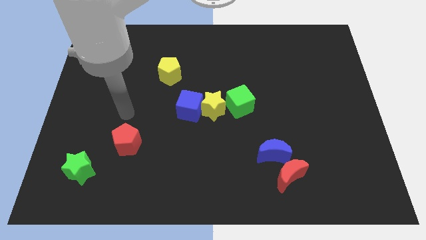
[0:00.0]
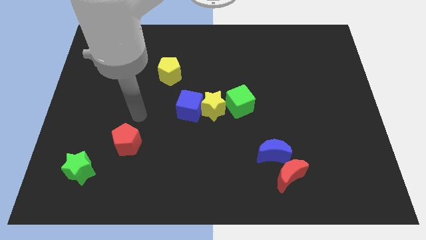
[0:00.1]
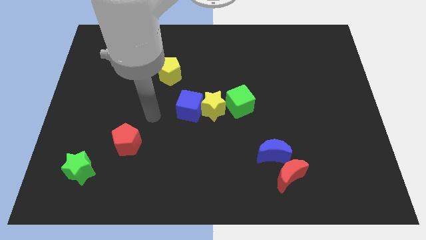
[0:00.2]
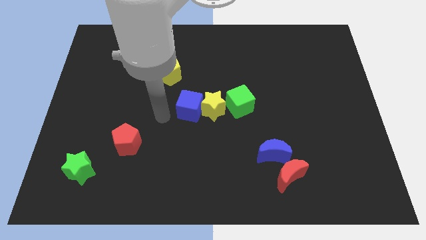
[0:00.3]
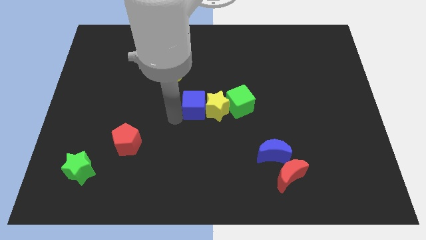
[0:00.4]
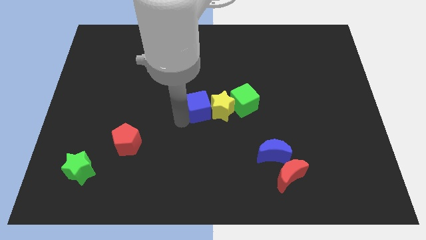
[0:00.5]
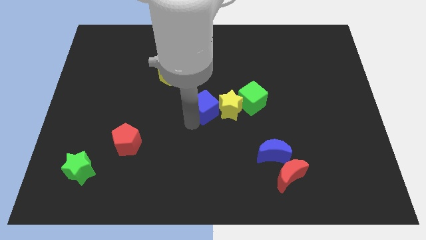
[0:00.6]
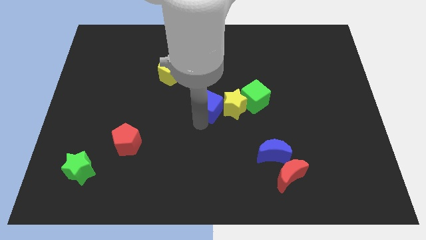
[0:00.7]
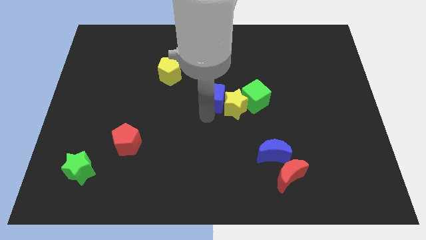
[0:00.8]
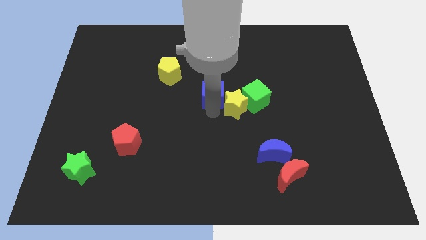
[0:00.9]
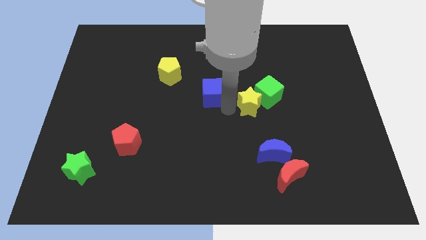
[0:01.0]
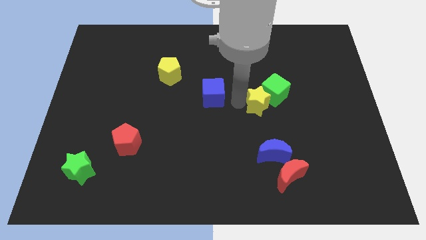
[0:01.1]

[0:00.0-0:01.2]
move the blue cube away from the yellow star

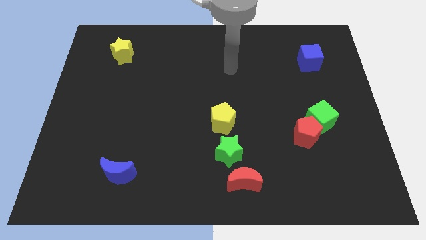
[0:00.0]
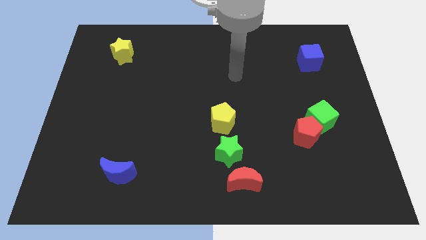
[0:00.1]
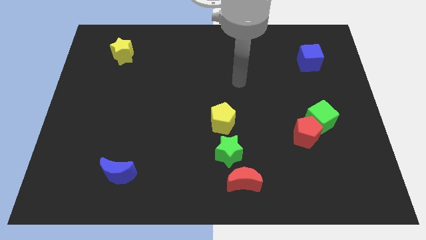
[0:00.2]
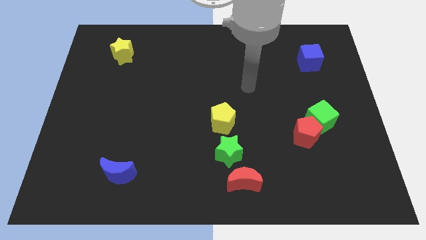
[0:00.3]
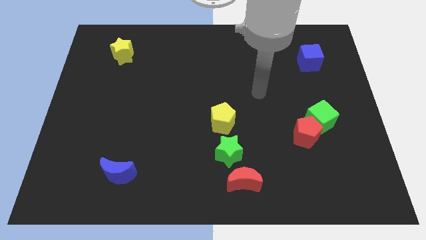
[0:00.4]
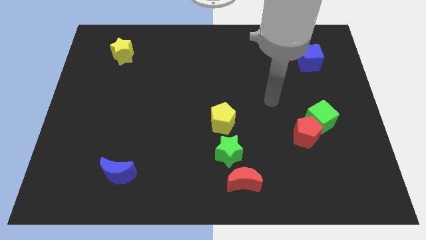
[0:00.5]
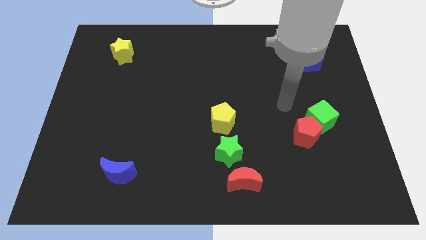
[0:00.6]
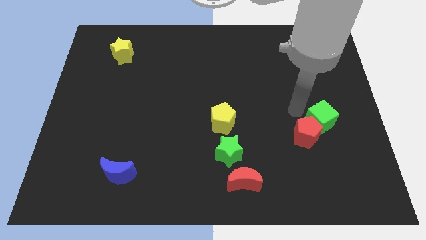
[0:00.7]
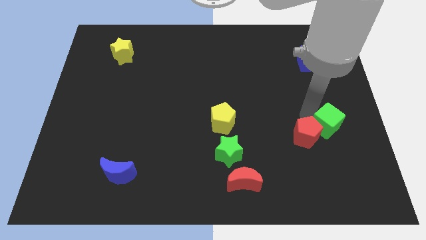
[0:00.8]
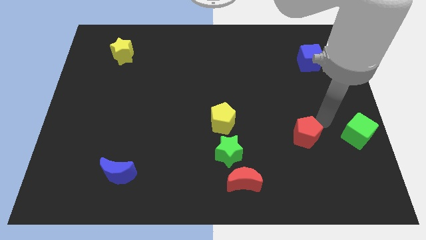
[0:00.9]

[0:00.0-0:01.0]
pull the red pentagon apart from the green cube

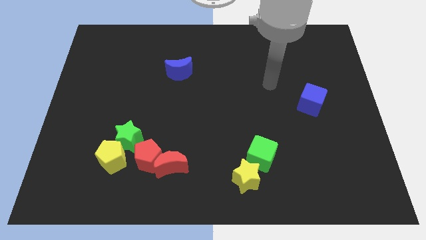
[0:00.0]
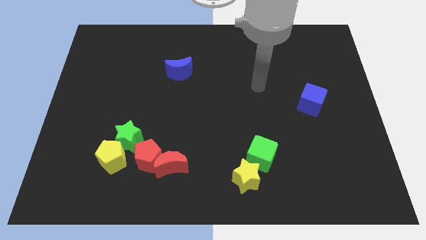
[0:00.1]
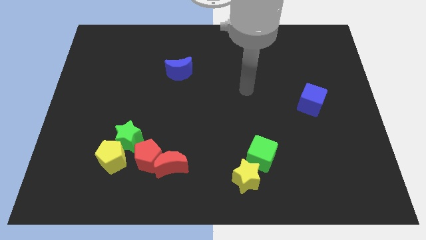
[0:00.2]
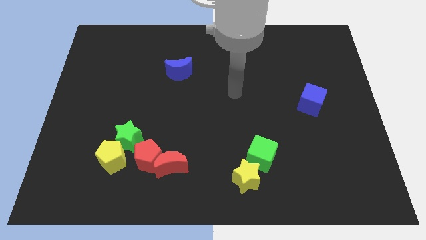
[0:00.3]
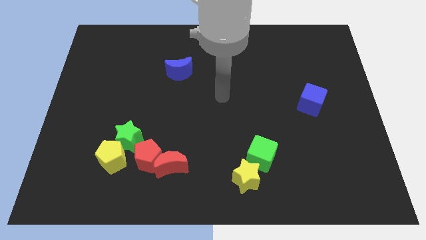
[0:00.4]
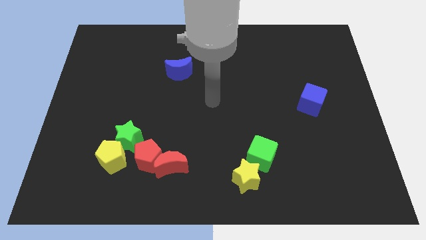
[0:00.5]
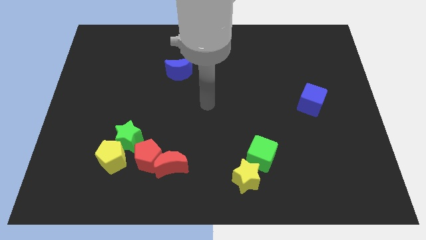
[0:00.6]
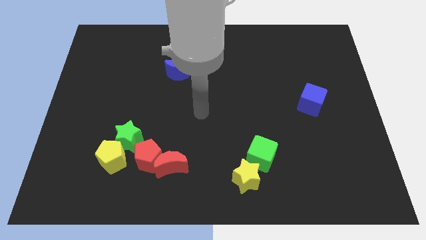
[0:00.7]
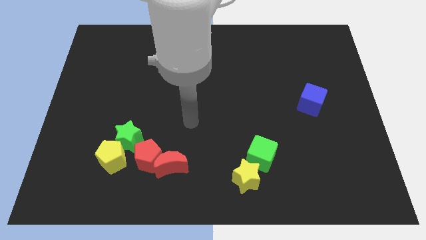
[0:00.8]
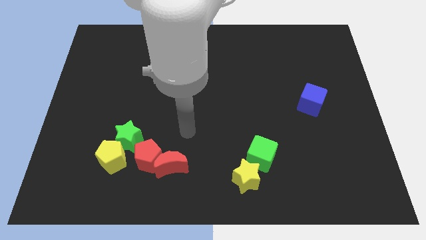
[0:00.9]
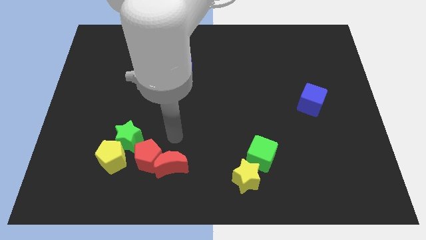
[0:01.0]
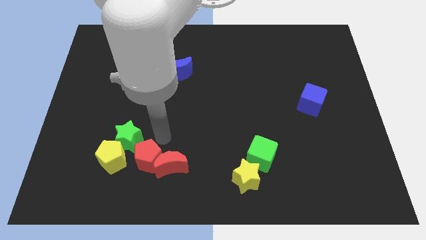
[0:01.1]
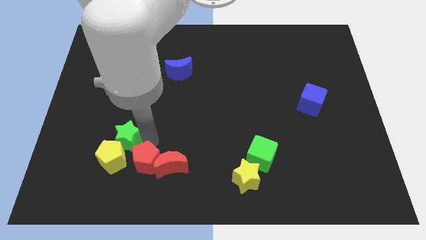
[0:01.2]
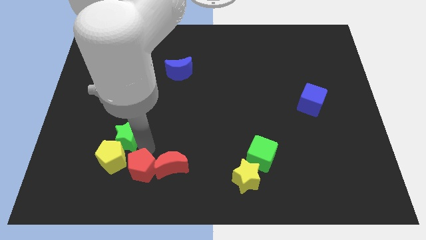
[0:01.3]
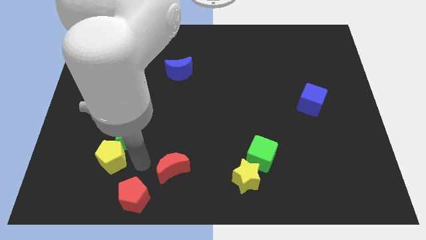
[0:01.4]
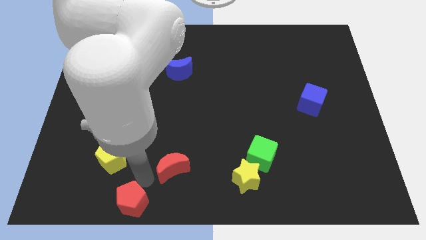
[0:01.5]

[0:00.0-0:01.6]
pull the red moon apart from the red pentagon

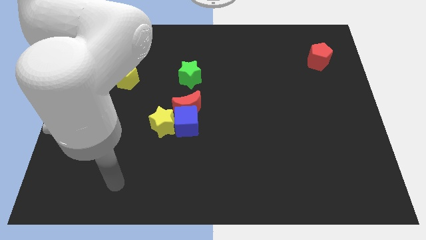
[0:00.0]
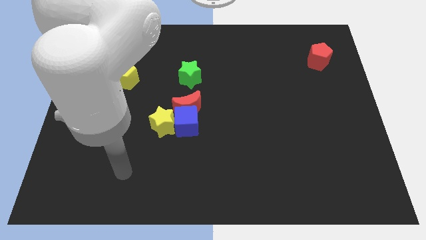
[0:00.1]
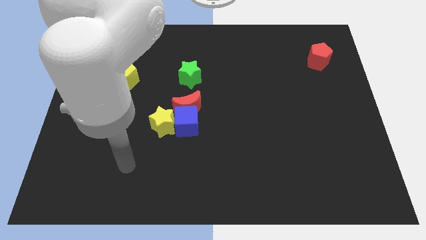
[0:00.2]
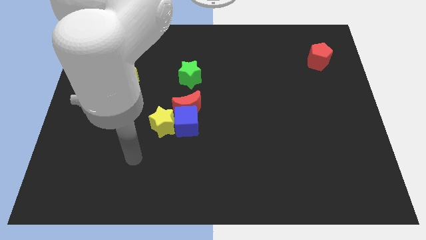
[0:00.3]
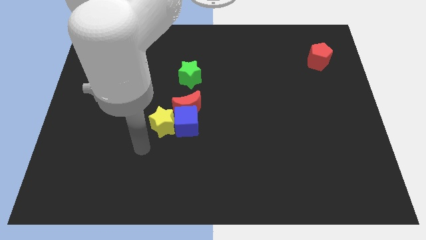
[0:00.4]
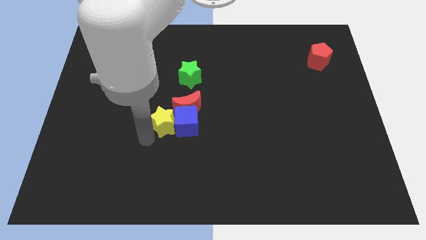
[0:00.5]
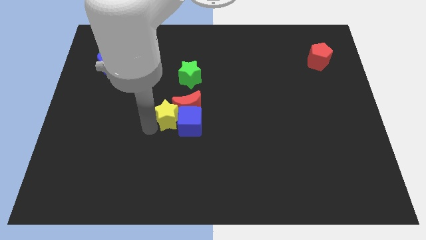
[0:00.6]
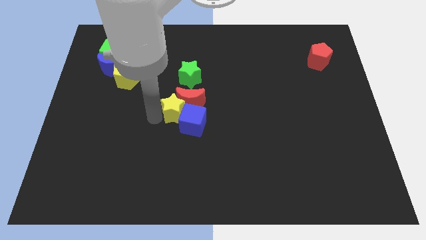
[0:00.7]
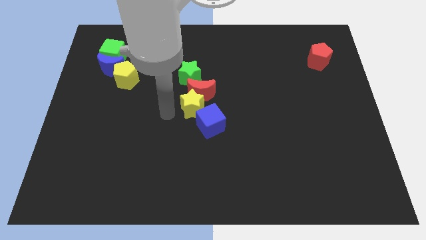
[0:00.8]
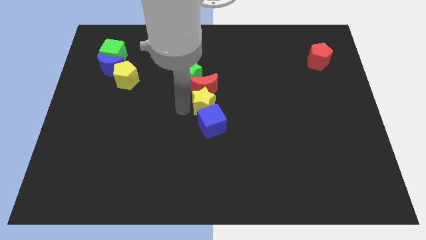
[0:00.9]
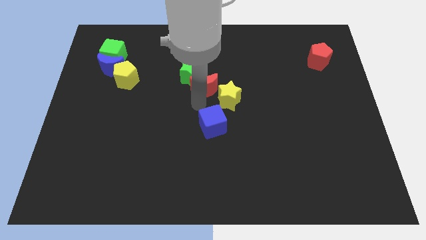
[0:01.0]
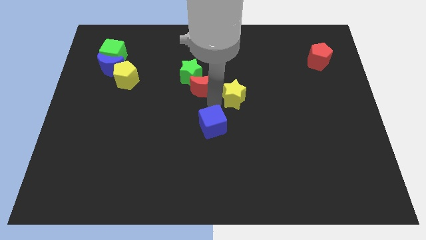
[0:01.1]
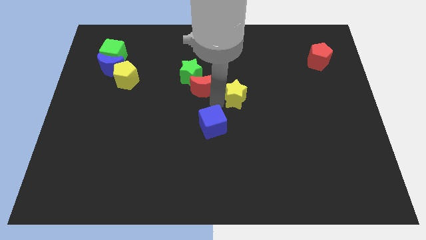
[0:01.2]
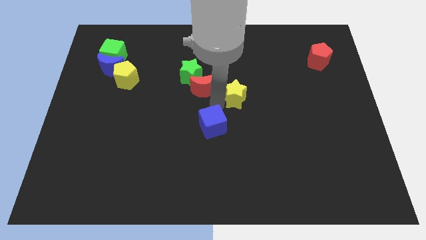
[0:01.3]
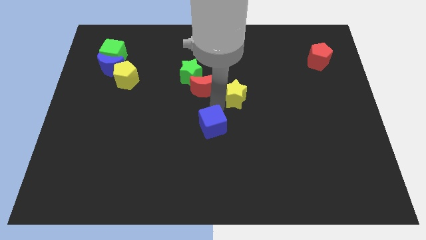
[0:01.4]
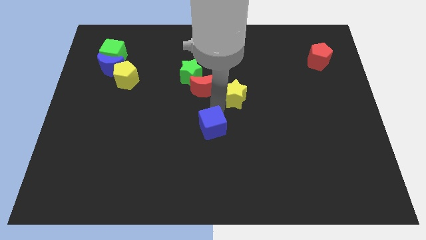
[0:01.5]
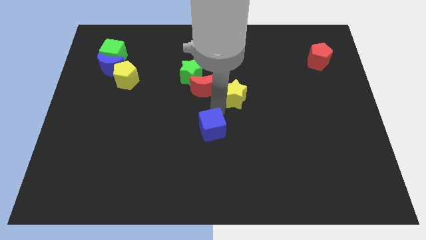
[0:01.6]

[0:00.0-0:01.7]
separate the blue cube from the red moon and yellow star

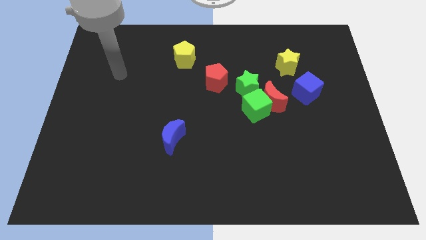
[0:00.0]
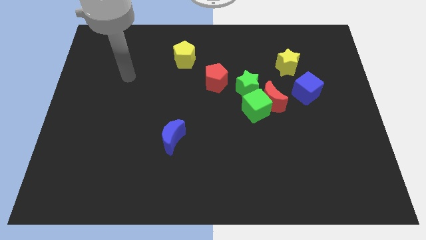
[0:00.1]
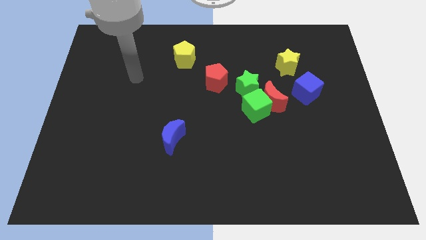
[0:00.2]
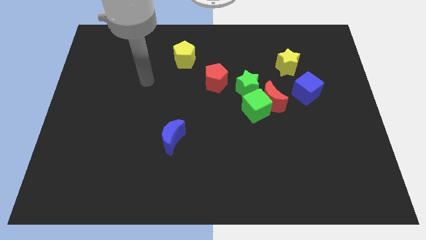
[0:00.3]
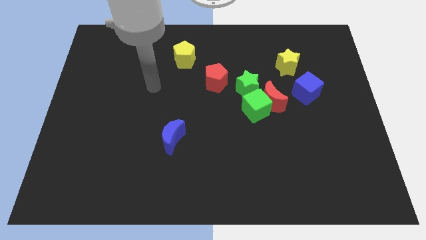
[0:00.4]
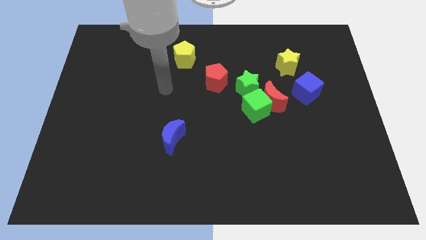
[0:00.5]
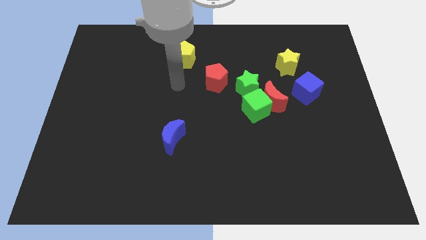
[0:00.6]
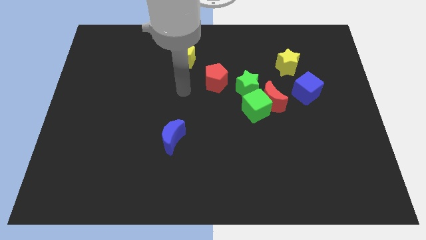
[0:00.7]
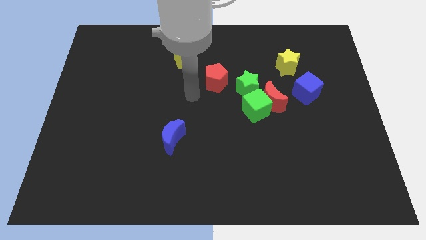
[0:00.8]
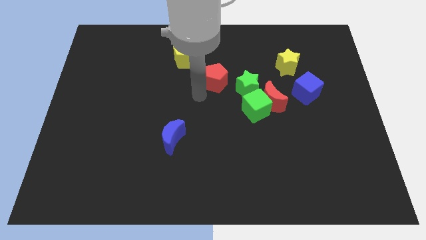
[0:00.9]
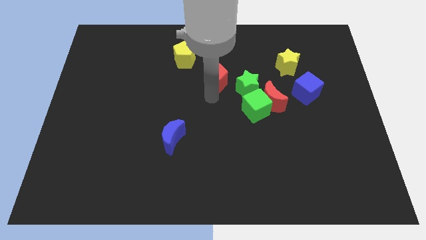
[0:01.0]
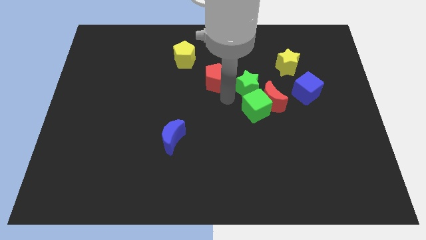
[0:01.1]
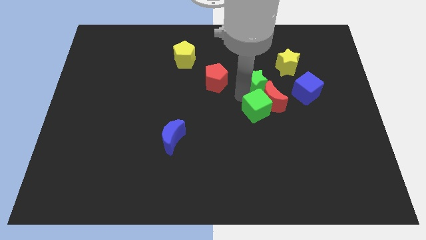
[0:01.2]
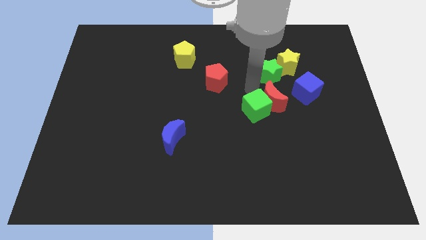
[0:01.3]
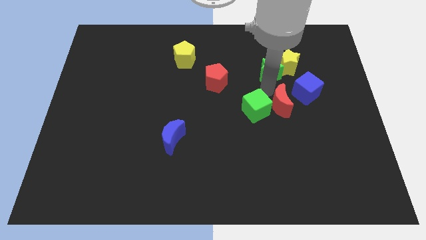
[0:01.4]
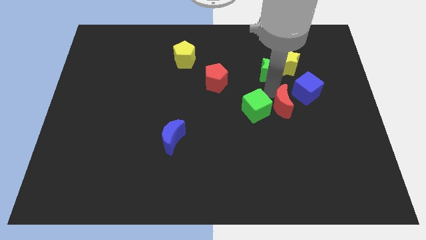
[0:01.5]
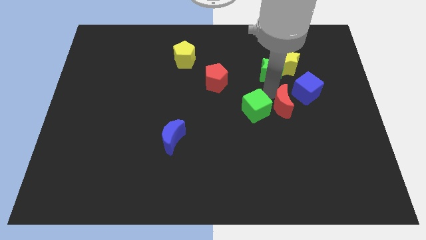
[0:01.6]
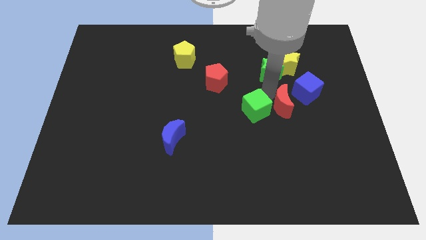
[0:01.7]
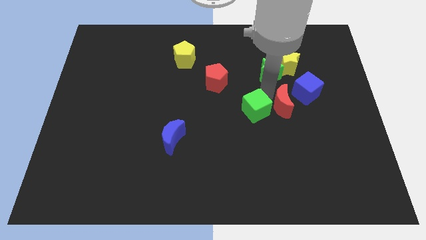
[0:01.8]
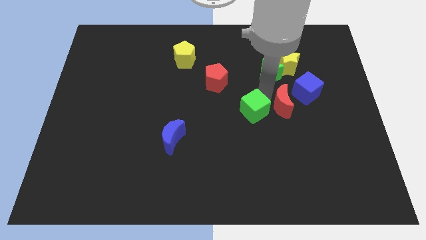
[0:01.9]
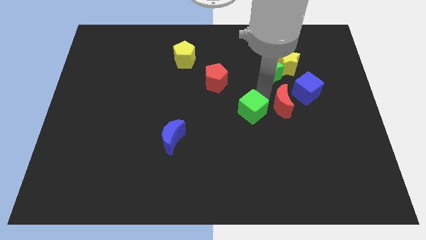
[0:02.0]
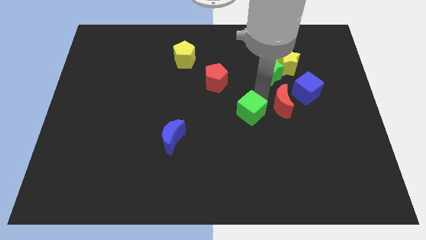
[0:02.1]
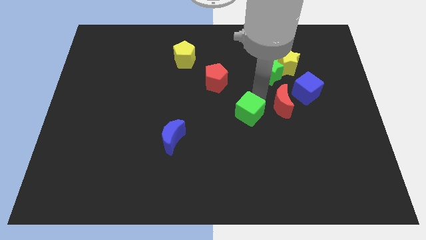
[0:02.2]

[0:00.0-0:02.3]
separate the green cube from the red moon and green star

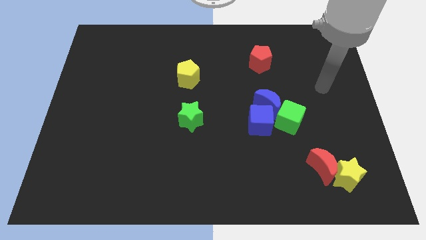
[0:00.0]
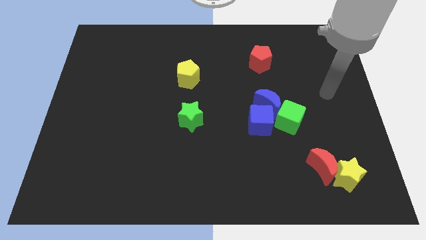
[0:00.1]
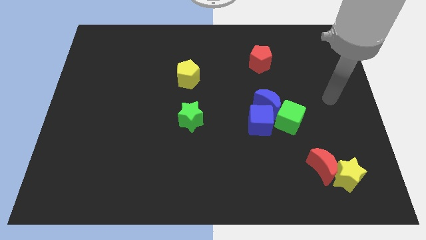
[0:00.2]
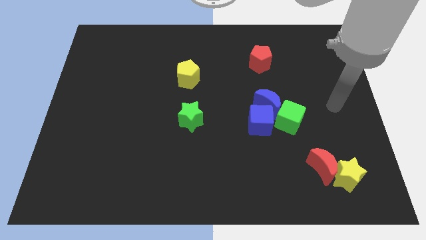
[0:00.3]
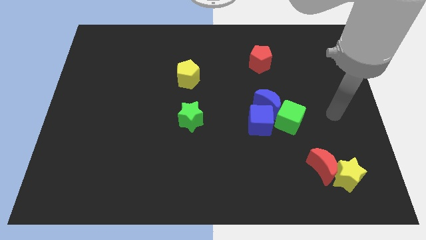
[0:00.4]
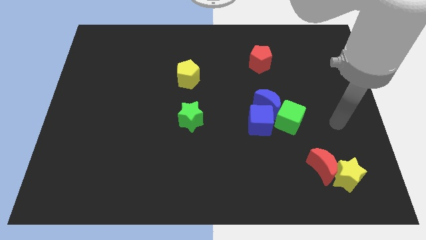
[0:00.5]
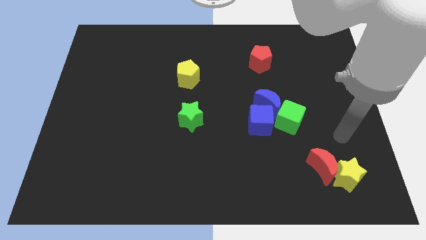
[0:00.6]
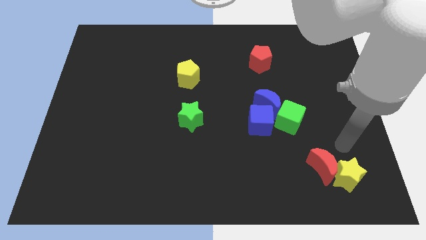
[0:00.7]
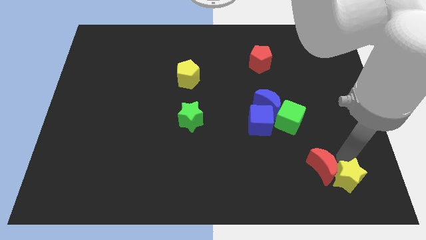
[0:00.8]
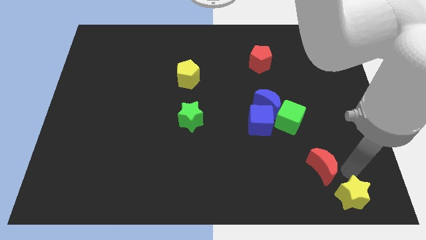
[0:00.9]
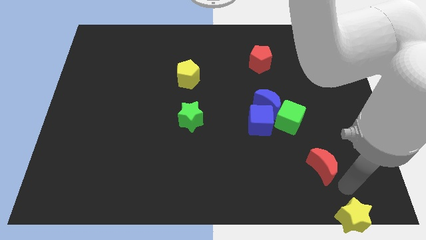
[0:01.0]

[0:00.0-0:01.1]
move the red moon away from the yellow star

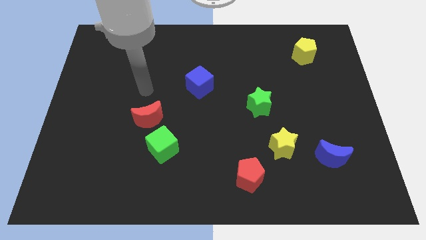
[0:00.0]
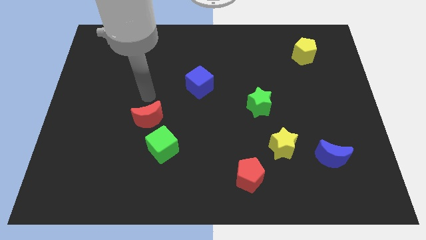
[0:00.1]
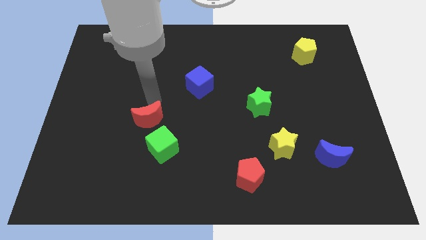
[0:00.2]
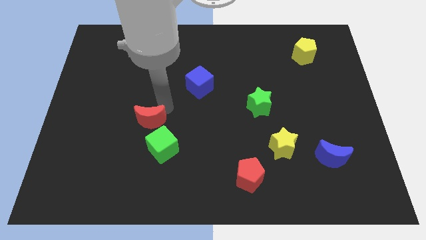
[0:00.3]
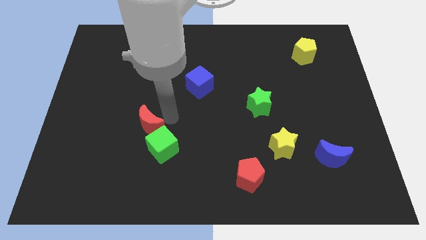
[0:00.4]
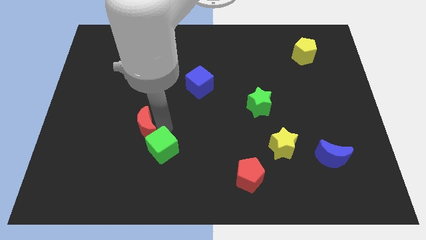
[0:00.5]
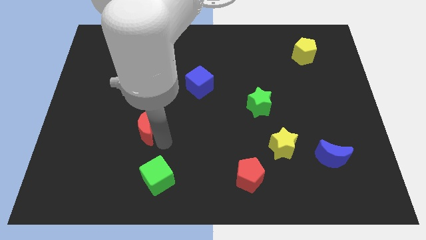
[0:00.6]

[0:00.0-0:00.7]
separate the red moon from the green cube
